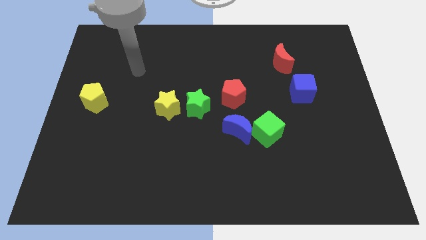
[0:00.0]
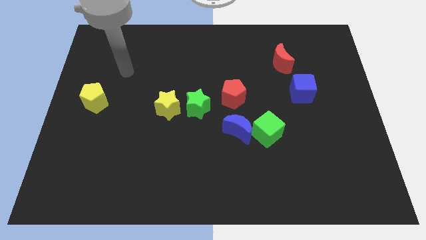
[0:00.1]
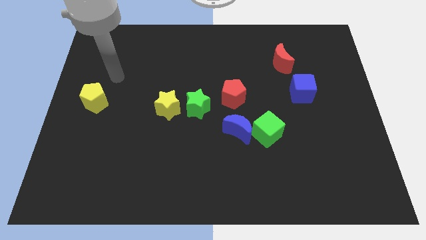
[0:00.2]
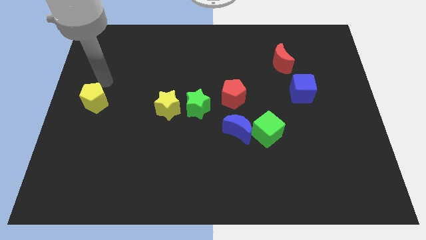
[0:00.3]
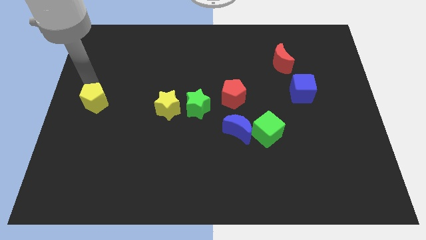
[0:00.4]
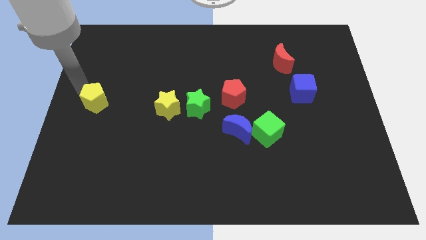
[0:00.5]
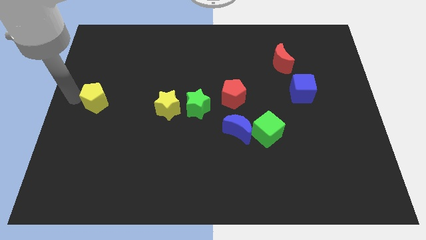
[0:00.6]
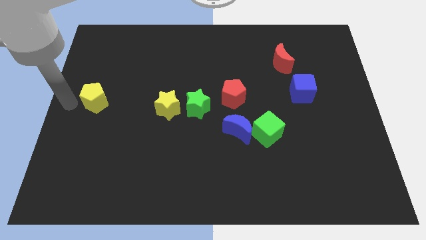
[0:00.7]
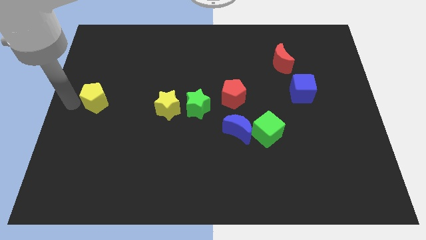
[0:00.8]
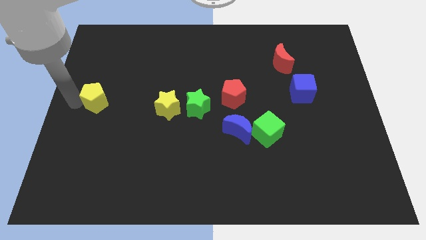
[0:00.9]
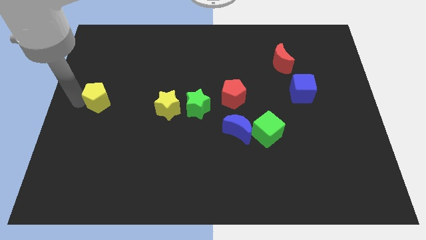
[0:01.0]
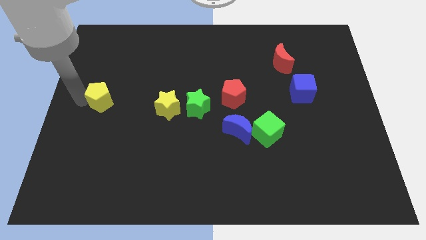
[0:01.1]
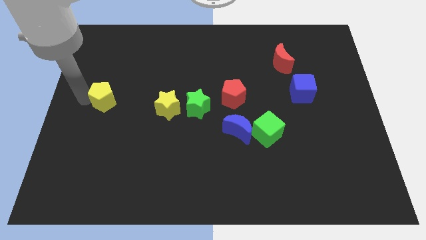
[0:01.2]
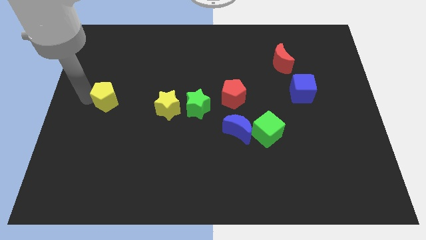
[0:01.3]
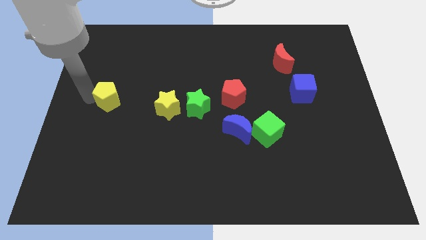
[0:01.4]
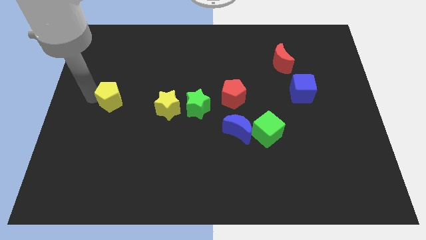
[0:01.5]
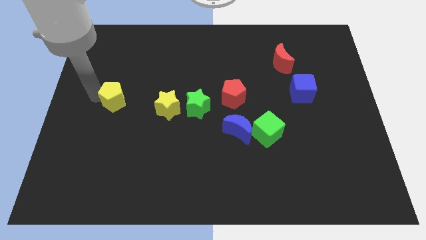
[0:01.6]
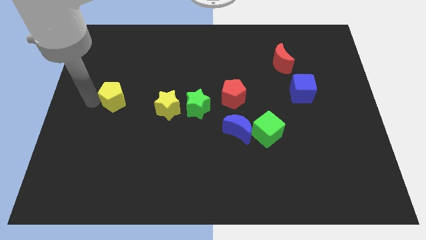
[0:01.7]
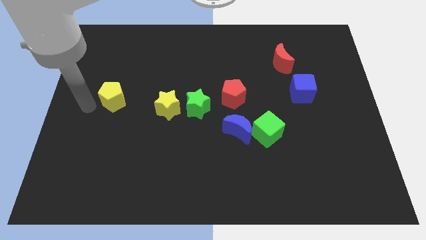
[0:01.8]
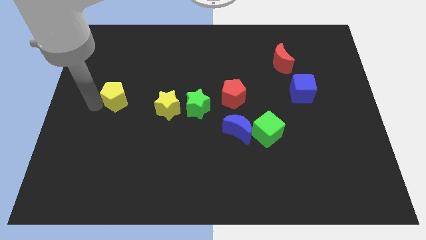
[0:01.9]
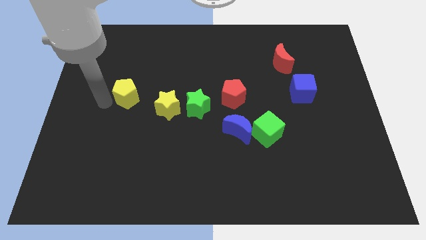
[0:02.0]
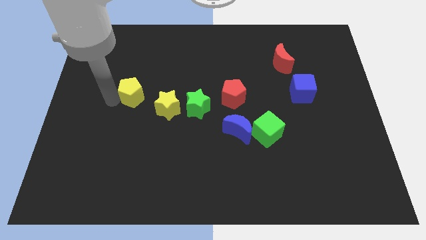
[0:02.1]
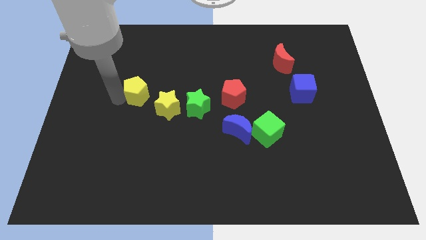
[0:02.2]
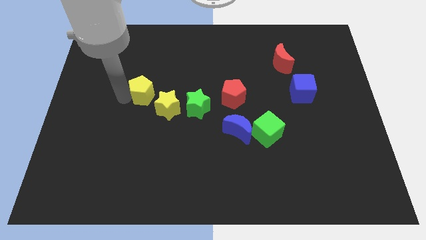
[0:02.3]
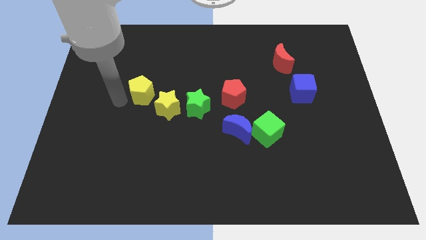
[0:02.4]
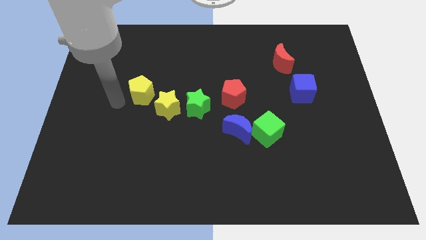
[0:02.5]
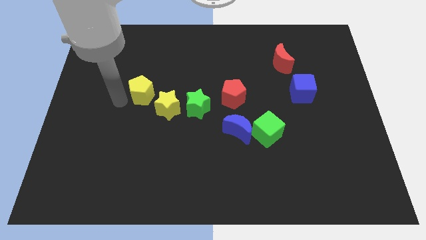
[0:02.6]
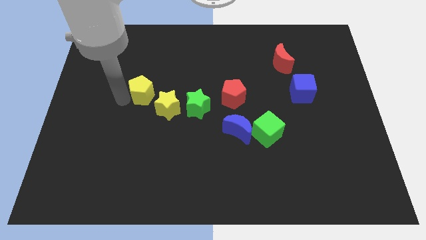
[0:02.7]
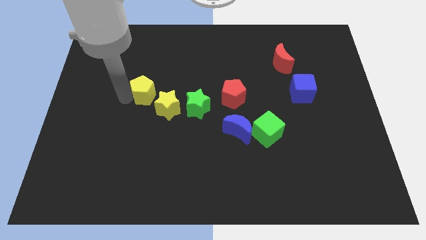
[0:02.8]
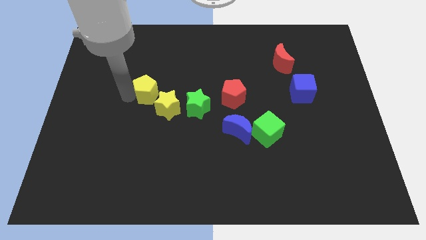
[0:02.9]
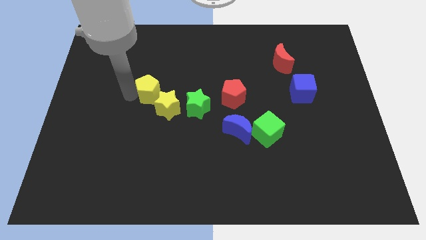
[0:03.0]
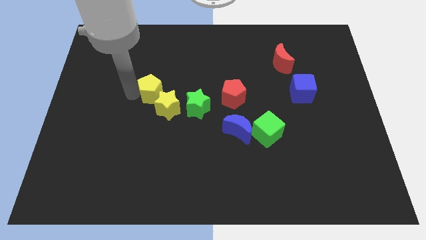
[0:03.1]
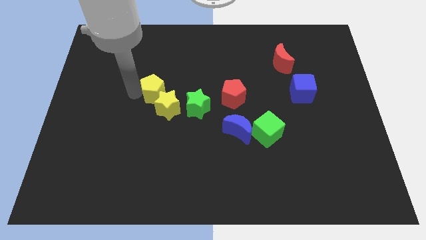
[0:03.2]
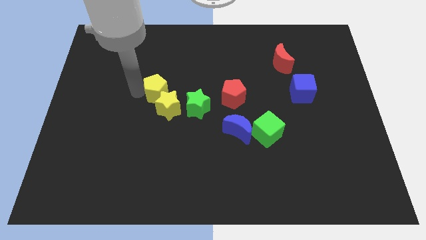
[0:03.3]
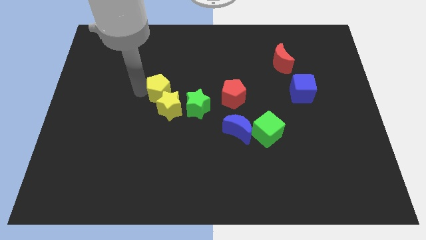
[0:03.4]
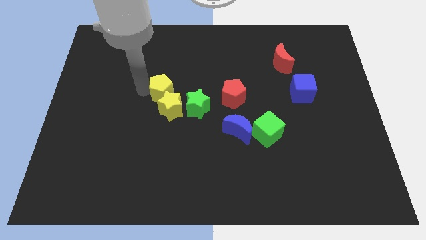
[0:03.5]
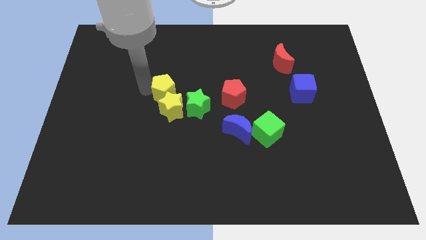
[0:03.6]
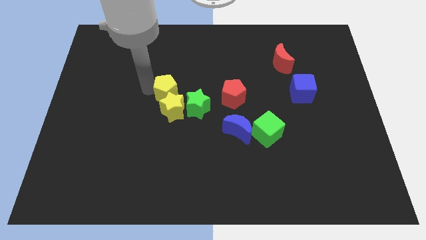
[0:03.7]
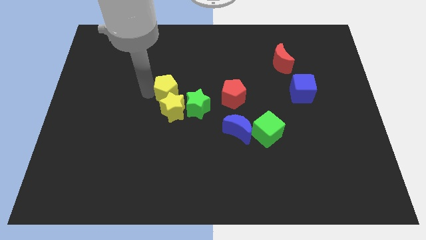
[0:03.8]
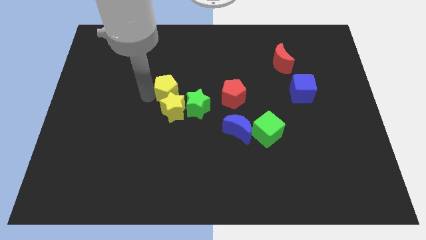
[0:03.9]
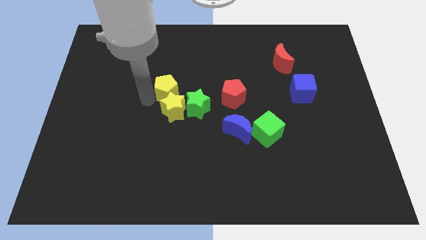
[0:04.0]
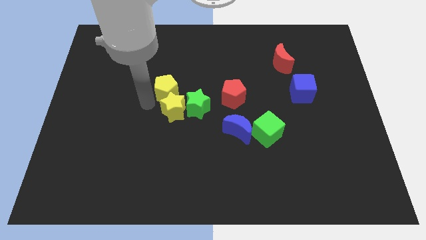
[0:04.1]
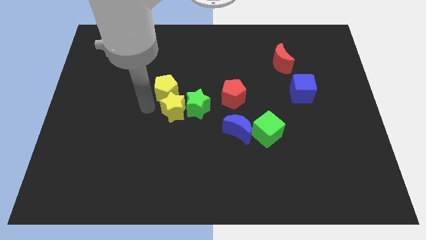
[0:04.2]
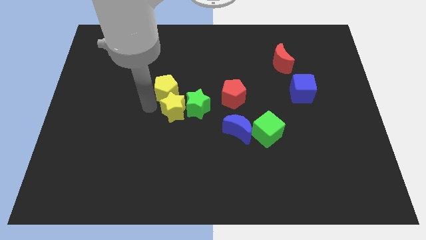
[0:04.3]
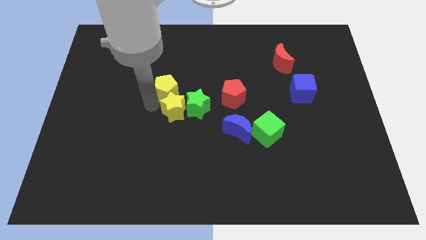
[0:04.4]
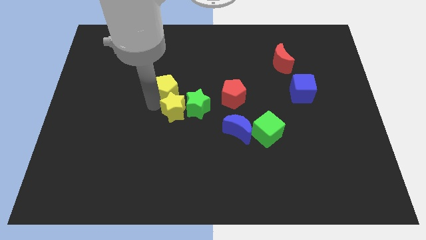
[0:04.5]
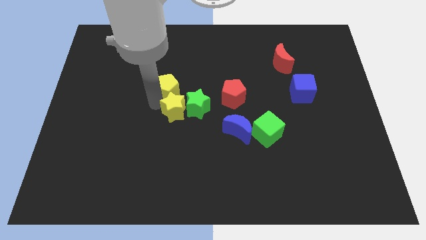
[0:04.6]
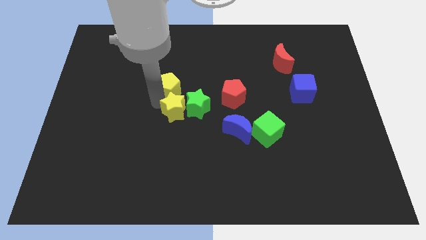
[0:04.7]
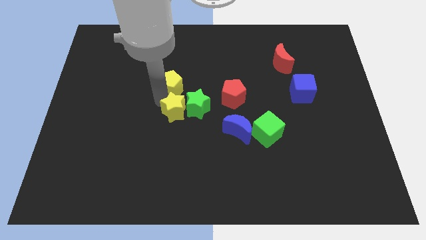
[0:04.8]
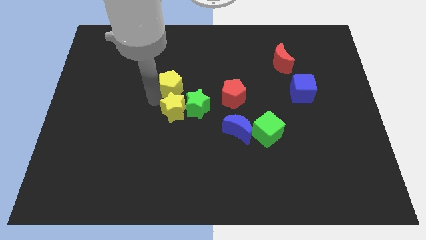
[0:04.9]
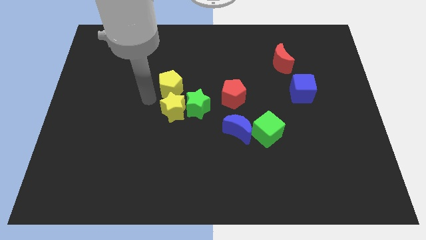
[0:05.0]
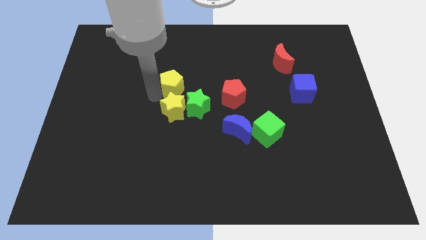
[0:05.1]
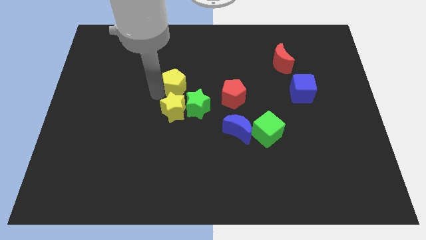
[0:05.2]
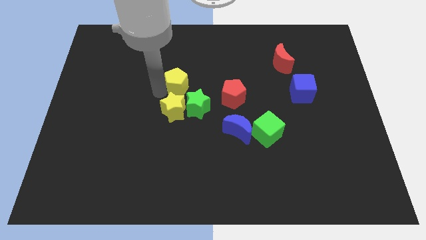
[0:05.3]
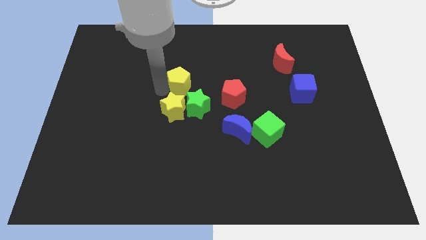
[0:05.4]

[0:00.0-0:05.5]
push the yellow pentagon to the top of the green star

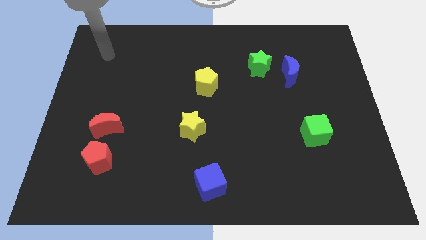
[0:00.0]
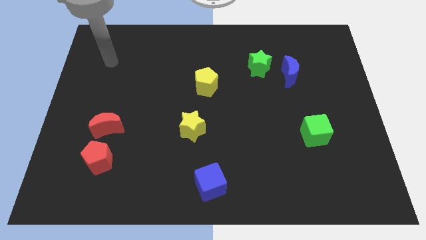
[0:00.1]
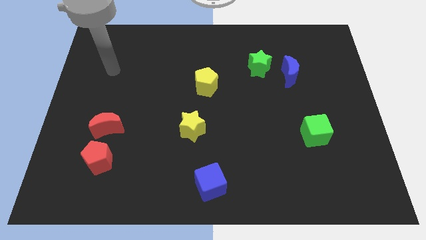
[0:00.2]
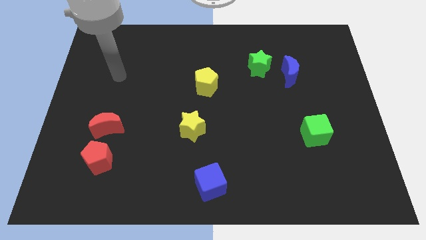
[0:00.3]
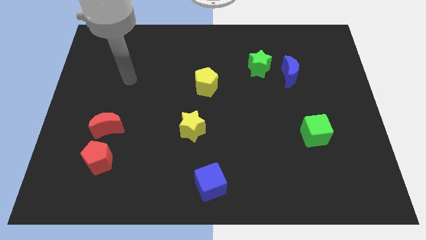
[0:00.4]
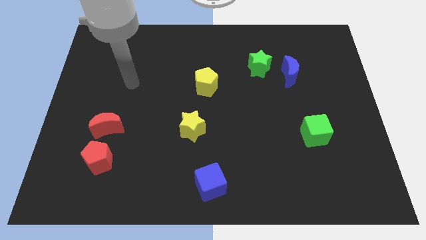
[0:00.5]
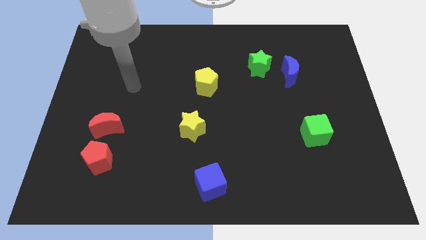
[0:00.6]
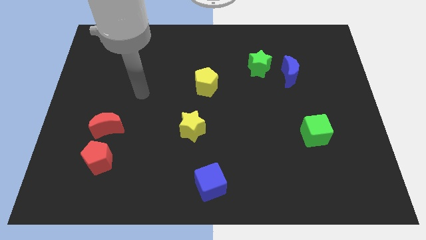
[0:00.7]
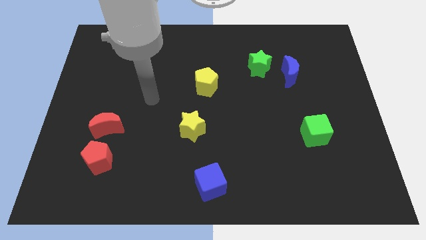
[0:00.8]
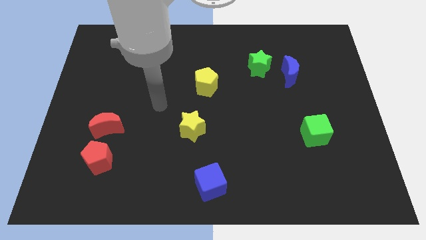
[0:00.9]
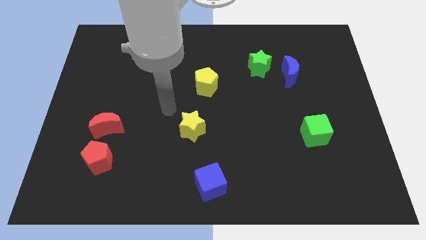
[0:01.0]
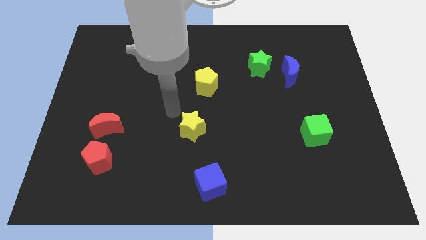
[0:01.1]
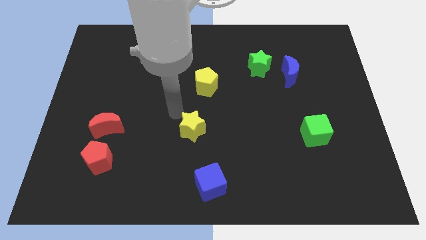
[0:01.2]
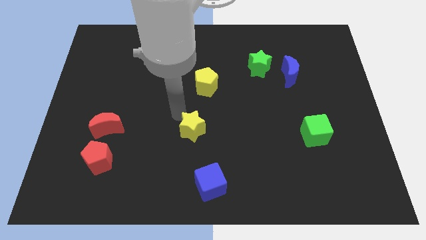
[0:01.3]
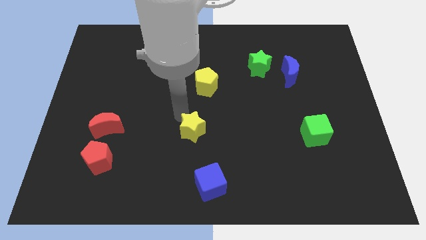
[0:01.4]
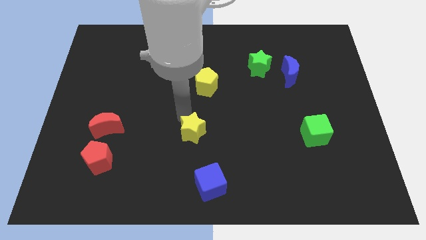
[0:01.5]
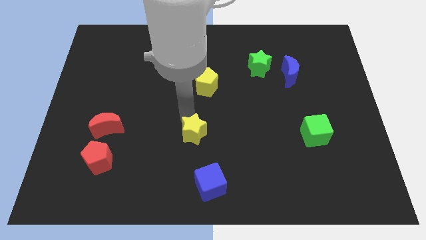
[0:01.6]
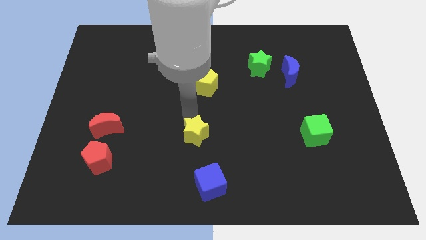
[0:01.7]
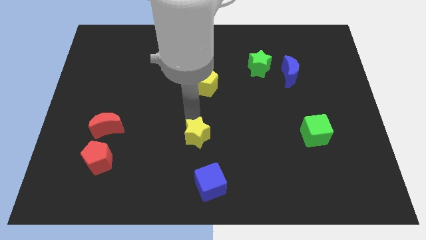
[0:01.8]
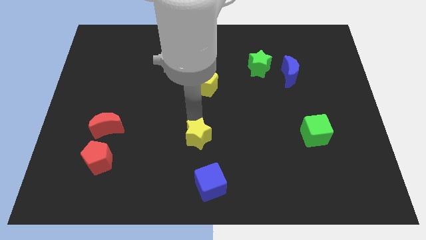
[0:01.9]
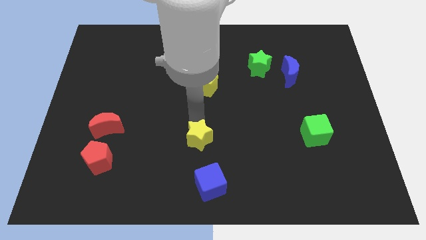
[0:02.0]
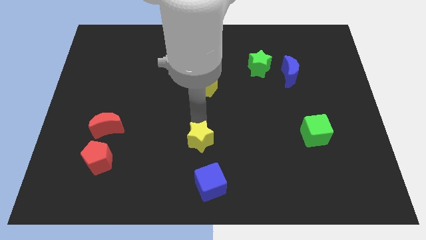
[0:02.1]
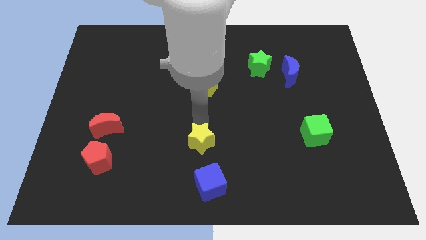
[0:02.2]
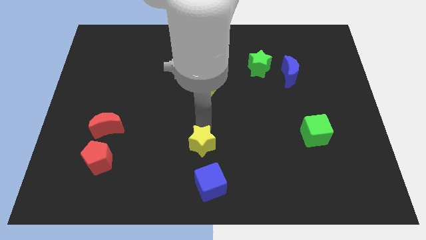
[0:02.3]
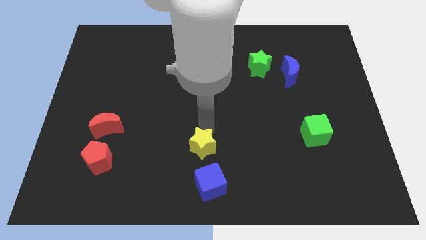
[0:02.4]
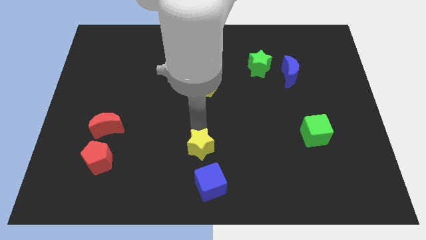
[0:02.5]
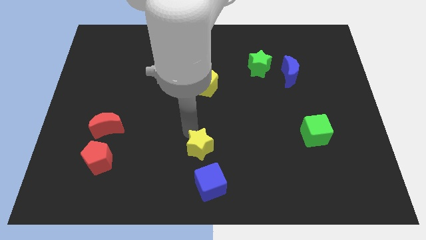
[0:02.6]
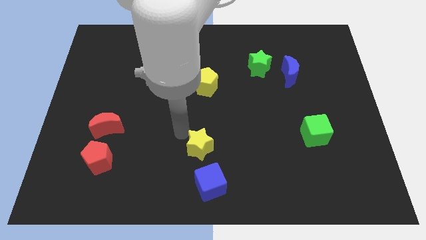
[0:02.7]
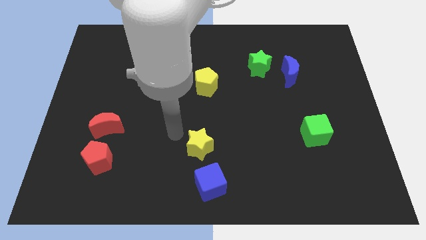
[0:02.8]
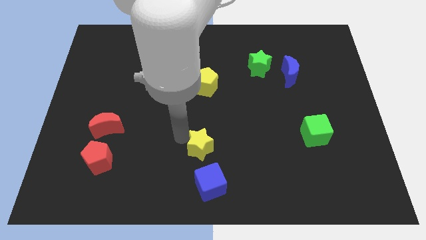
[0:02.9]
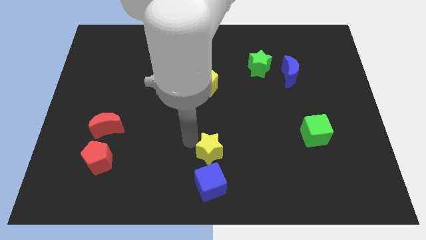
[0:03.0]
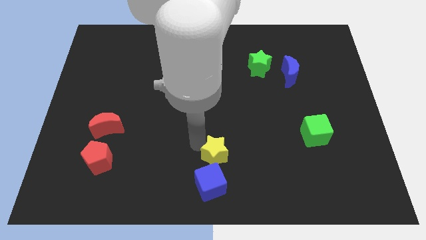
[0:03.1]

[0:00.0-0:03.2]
put the yellow star to the top right of the blue cube
